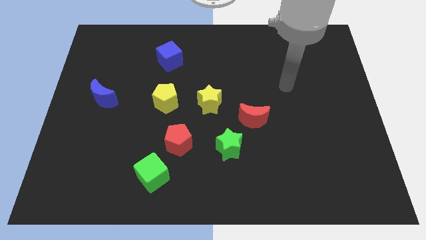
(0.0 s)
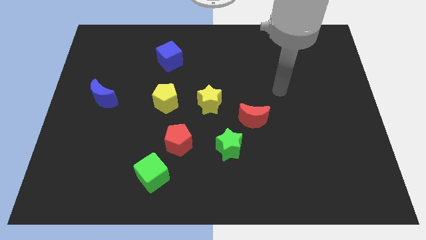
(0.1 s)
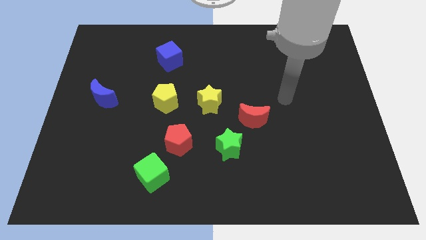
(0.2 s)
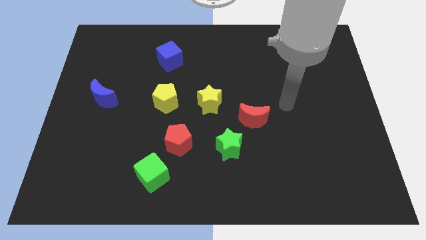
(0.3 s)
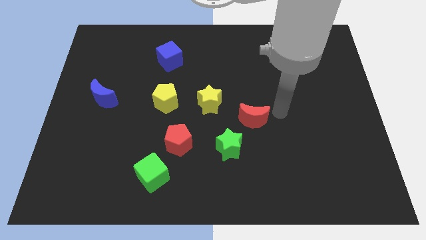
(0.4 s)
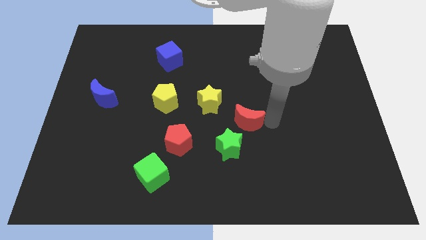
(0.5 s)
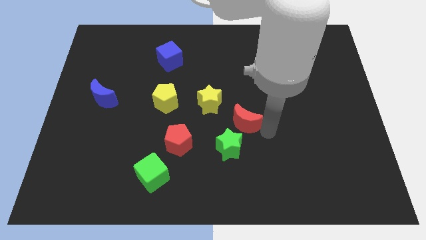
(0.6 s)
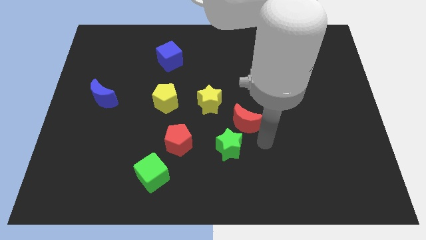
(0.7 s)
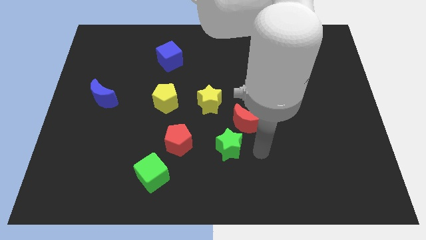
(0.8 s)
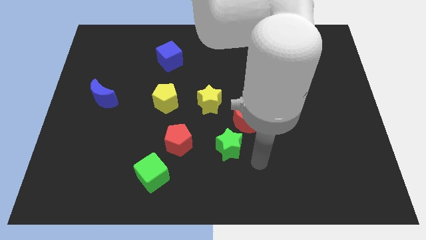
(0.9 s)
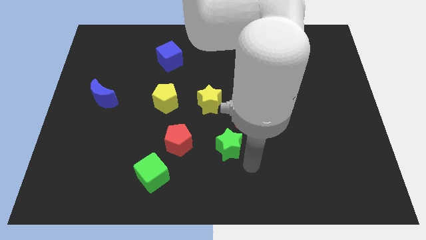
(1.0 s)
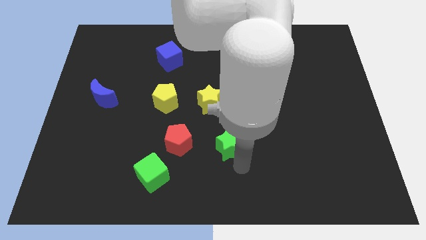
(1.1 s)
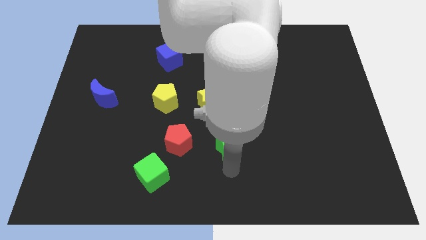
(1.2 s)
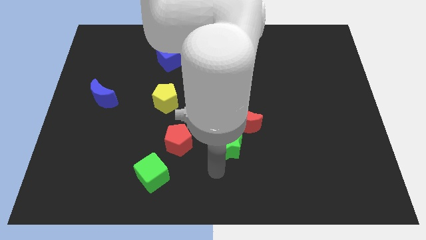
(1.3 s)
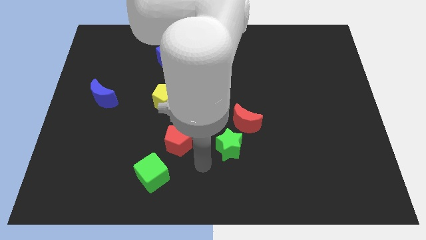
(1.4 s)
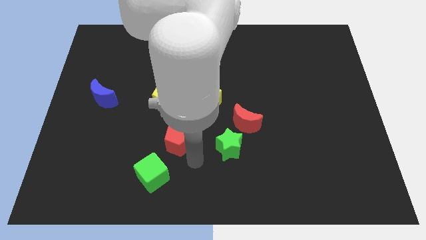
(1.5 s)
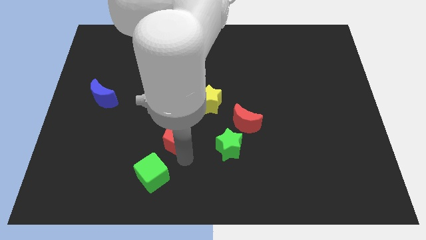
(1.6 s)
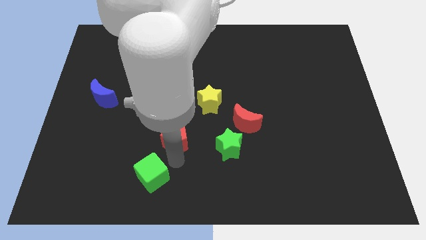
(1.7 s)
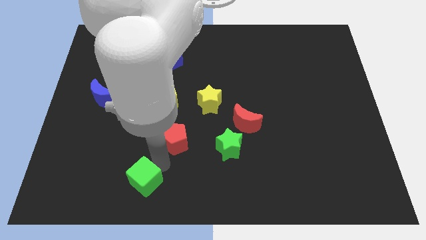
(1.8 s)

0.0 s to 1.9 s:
move the red pentagon away from the green cube

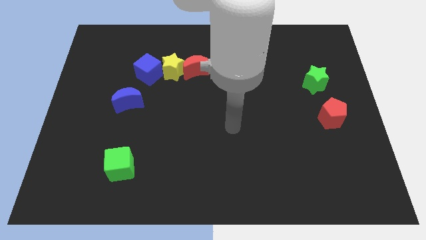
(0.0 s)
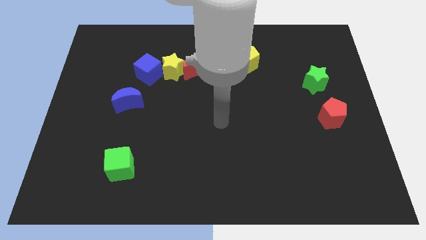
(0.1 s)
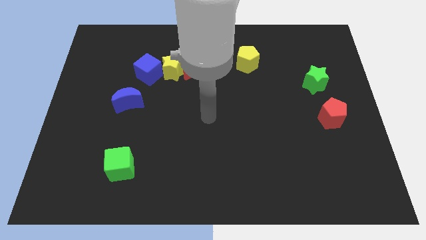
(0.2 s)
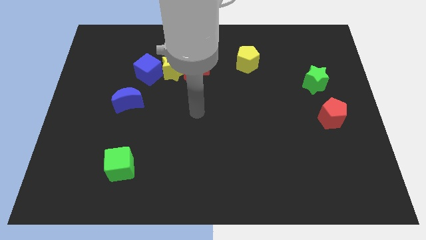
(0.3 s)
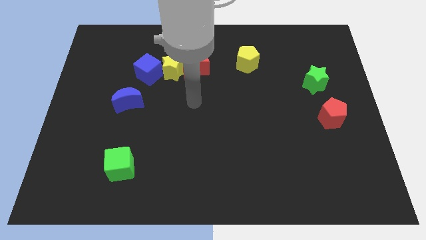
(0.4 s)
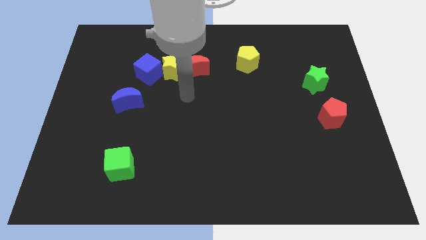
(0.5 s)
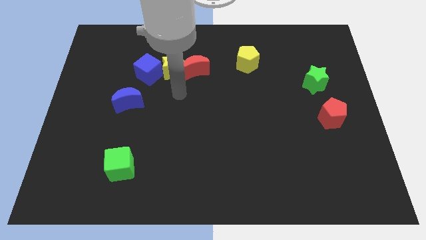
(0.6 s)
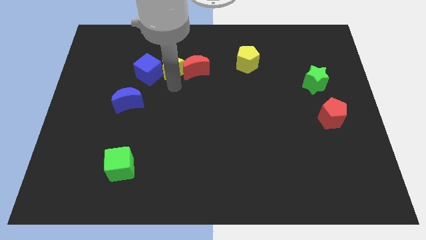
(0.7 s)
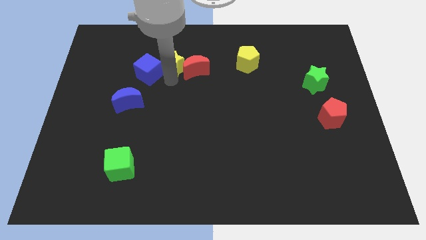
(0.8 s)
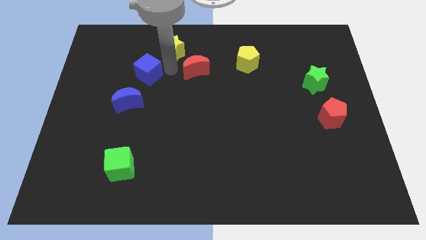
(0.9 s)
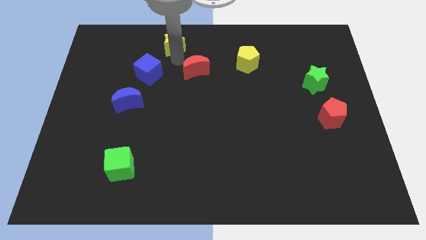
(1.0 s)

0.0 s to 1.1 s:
move the red moon away from the yellow star

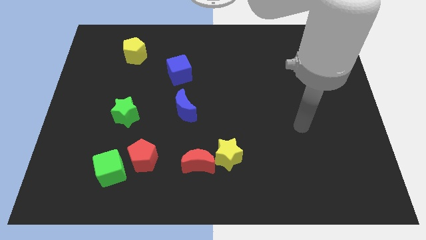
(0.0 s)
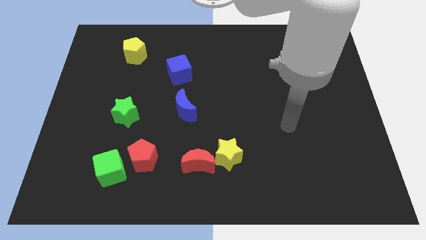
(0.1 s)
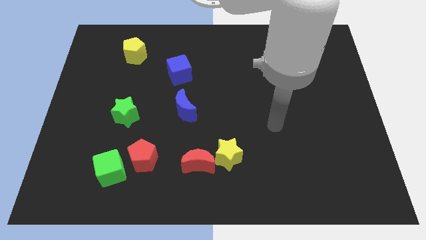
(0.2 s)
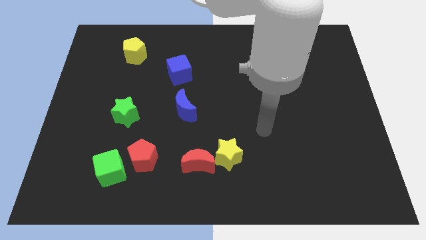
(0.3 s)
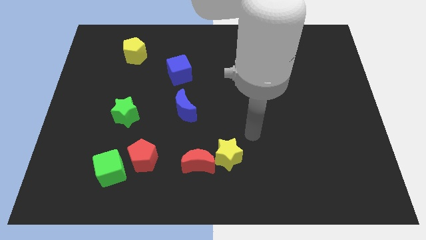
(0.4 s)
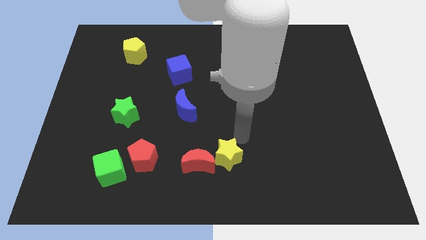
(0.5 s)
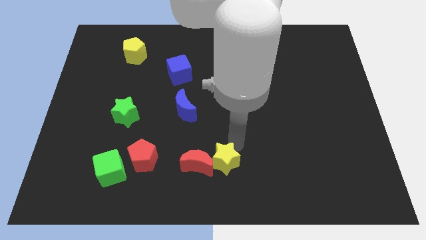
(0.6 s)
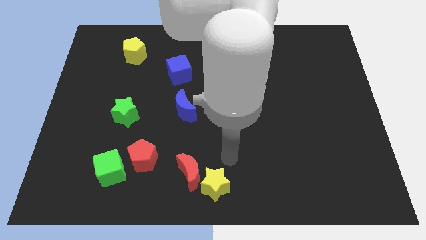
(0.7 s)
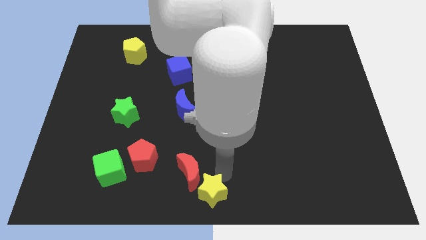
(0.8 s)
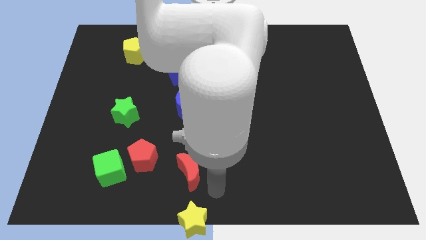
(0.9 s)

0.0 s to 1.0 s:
separate the red moon from the yellow star

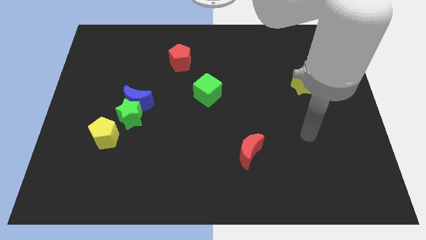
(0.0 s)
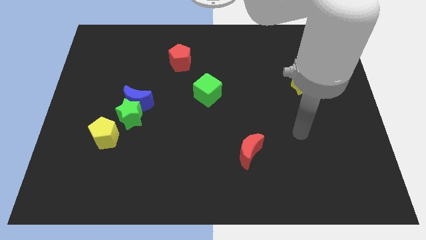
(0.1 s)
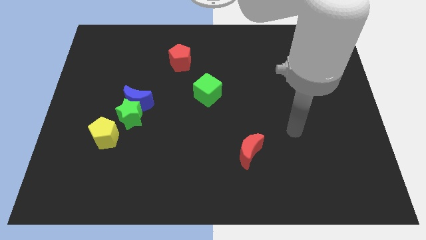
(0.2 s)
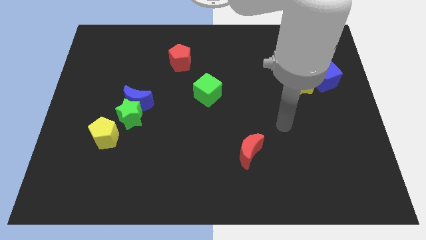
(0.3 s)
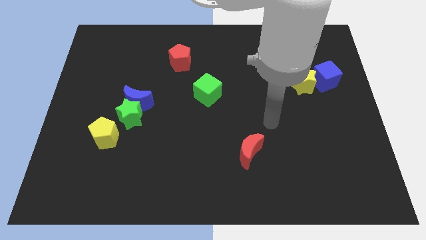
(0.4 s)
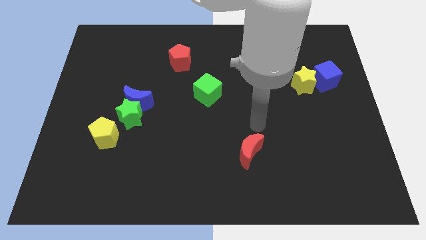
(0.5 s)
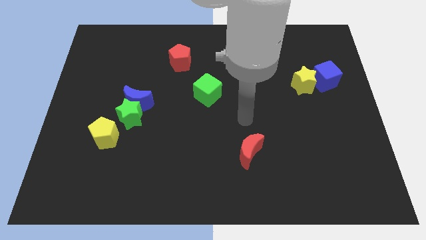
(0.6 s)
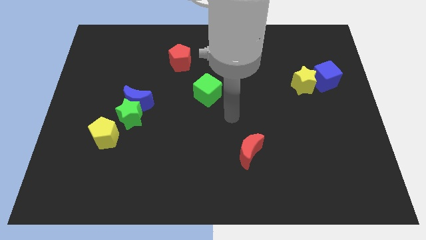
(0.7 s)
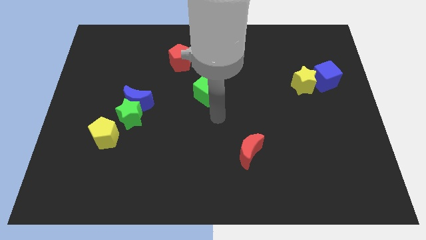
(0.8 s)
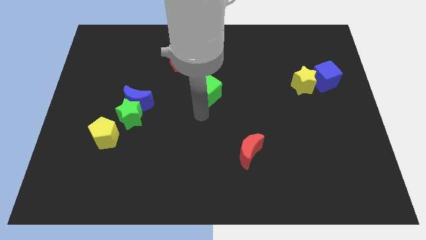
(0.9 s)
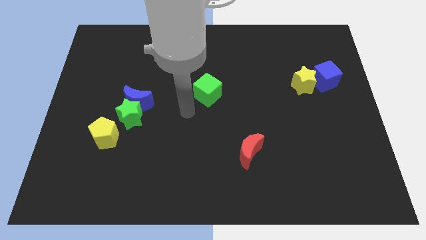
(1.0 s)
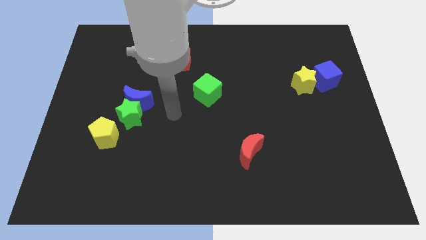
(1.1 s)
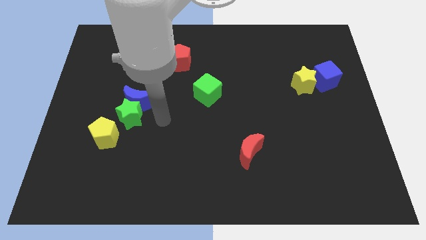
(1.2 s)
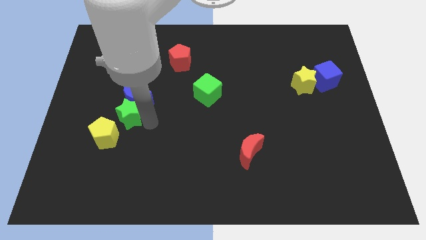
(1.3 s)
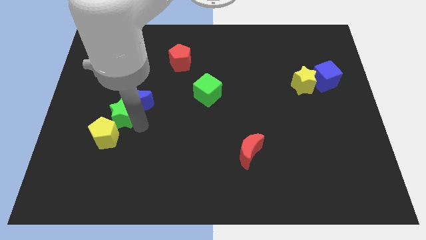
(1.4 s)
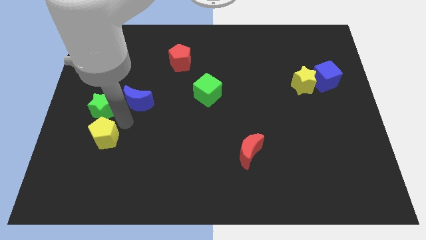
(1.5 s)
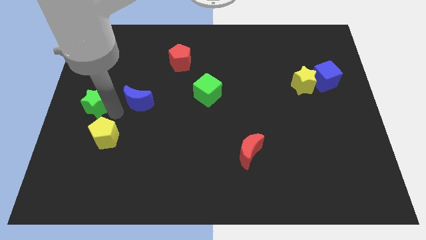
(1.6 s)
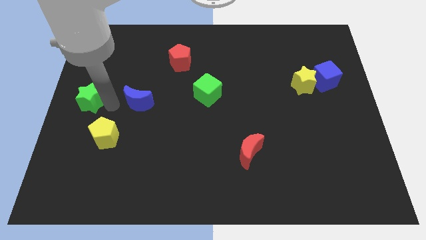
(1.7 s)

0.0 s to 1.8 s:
pull the blue moon apart from the green star

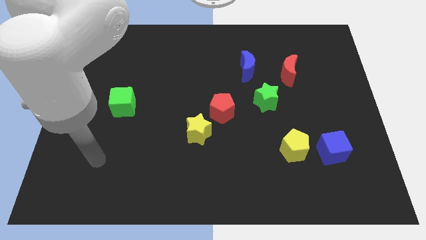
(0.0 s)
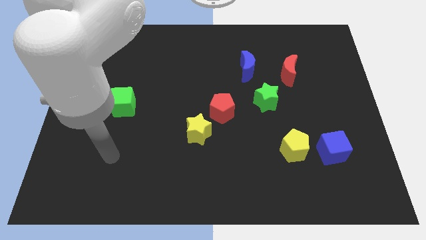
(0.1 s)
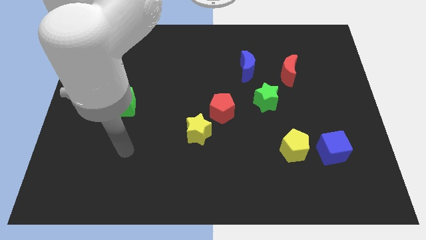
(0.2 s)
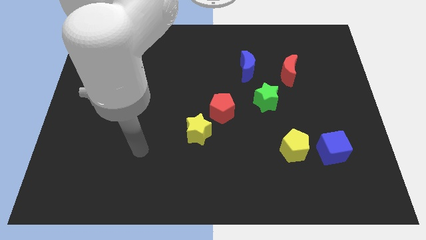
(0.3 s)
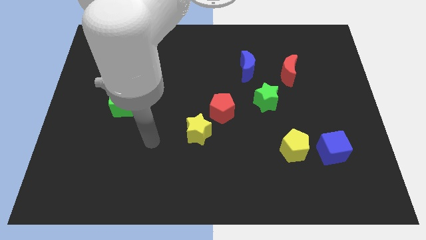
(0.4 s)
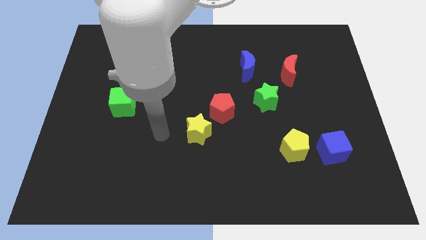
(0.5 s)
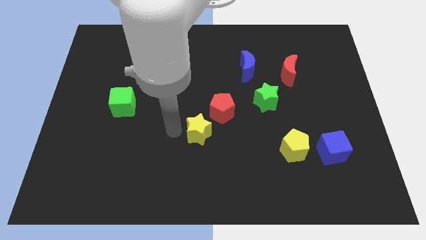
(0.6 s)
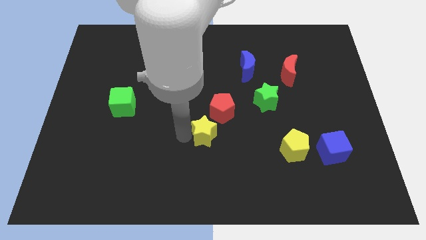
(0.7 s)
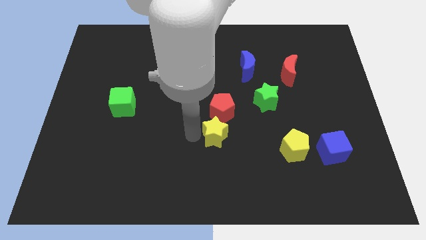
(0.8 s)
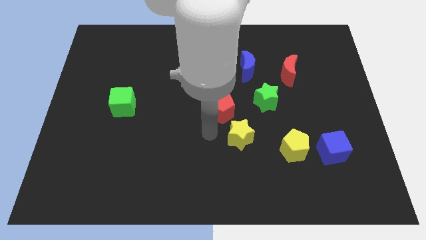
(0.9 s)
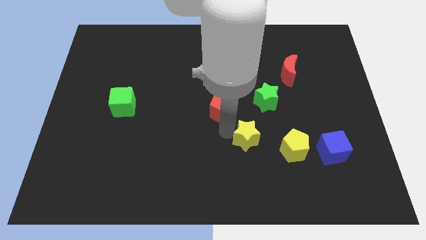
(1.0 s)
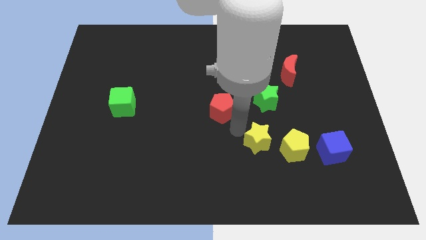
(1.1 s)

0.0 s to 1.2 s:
move the red pentagon away from the yellow star

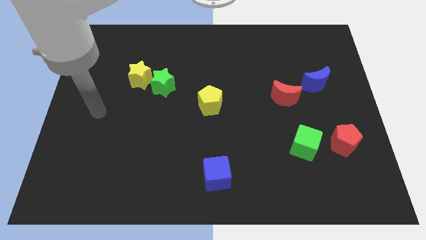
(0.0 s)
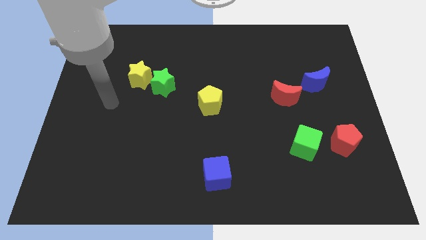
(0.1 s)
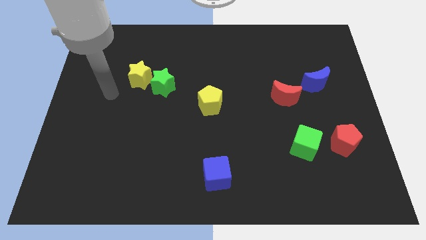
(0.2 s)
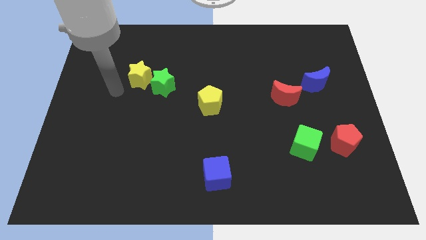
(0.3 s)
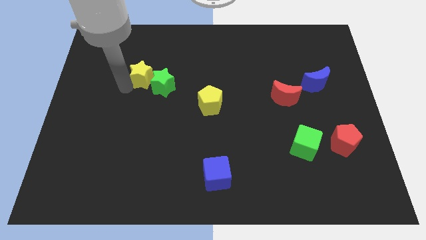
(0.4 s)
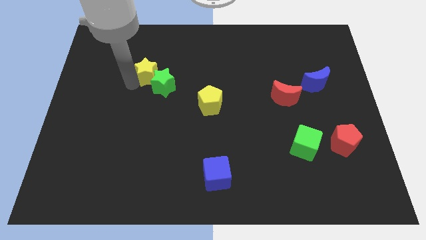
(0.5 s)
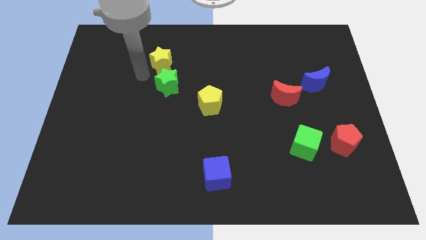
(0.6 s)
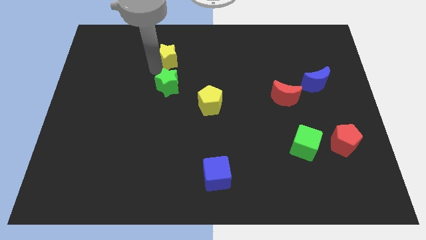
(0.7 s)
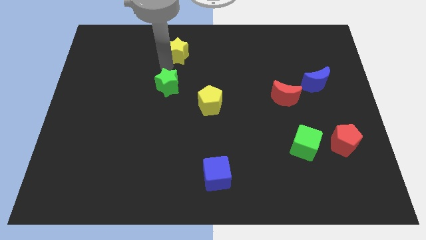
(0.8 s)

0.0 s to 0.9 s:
pull the green star apart from the yellow star

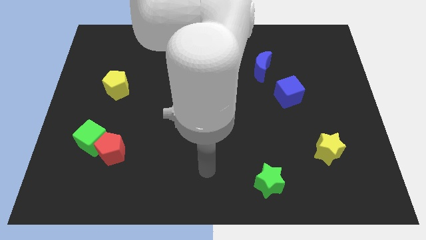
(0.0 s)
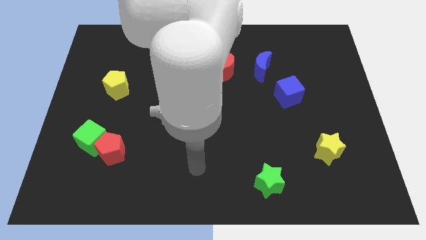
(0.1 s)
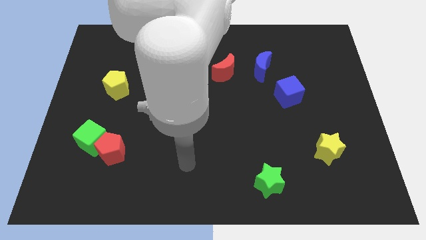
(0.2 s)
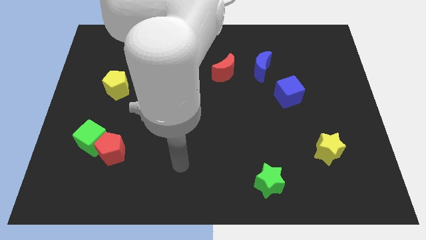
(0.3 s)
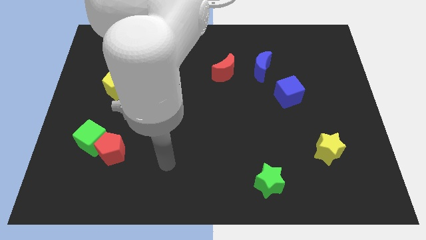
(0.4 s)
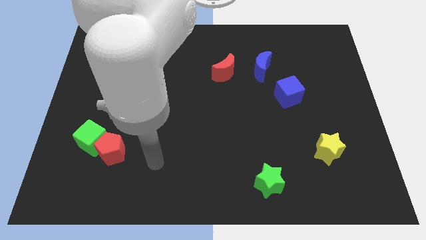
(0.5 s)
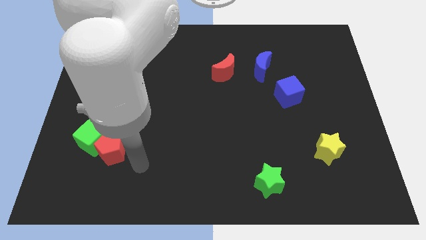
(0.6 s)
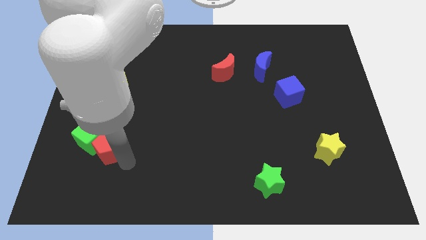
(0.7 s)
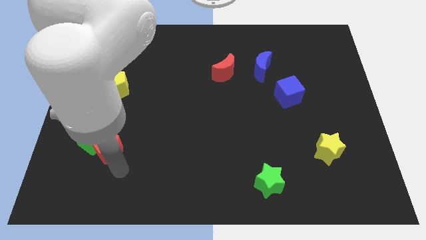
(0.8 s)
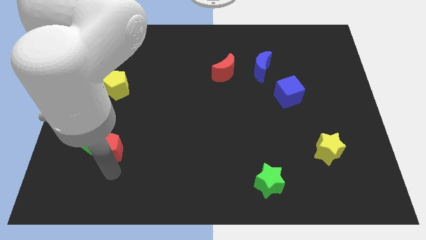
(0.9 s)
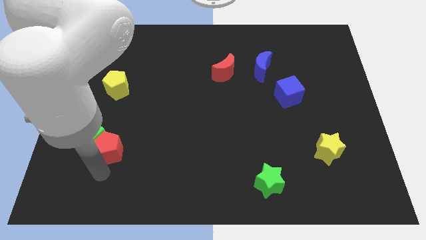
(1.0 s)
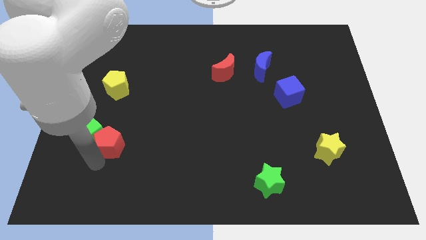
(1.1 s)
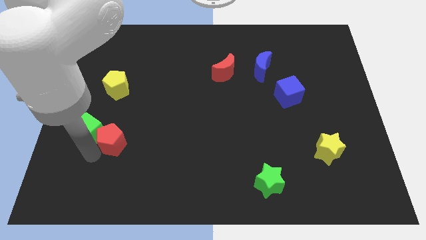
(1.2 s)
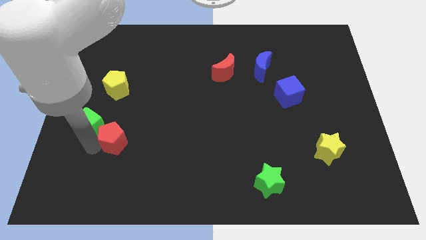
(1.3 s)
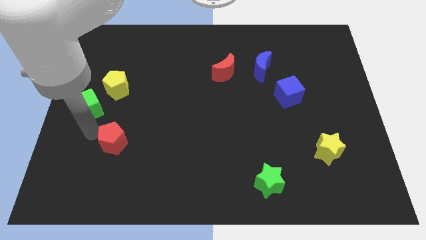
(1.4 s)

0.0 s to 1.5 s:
pull the red pentagon apart from the green cube
